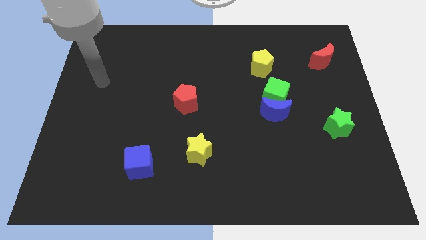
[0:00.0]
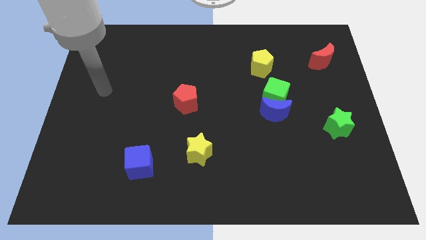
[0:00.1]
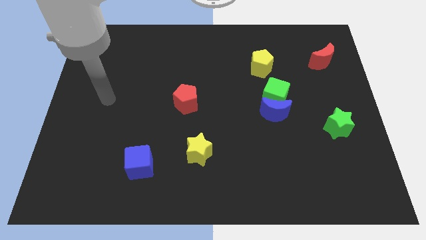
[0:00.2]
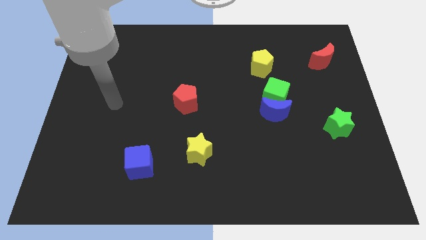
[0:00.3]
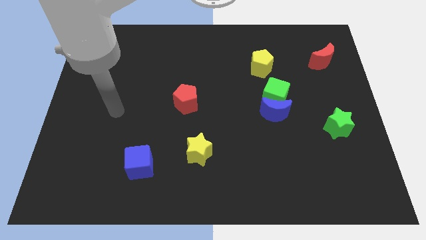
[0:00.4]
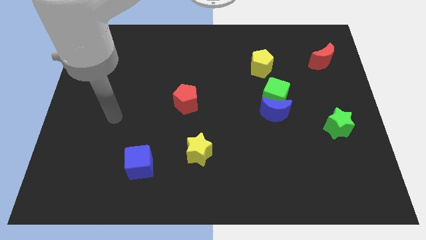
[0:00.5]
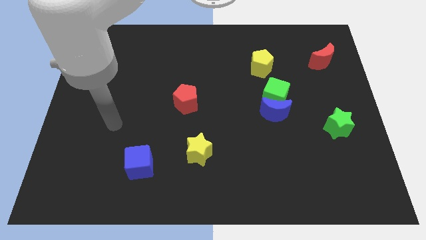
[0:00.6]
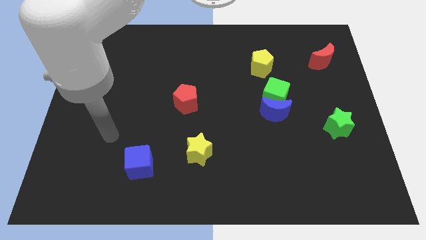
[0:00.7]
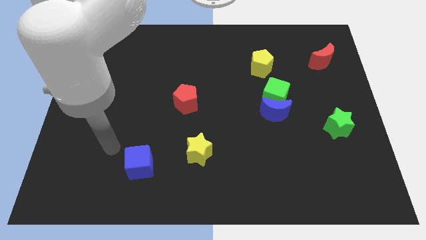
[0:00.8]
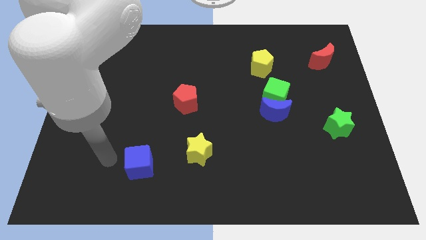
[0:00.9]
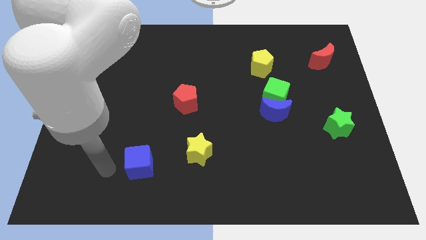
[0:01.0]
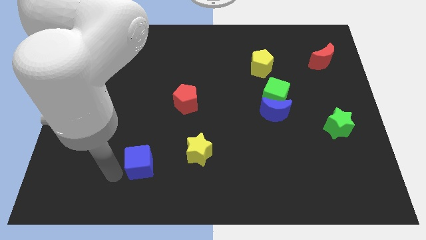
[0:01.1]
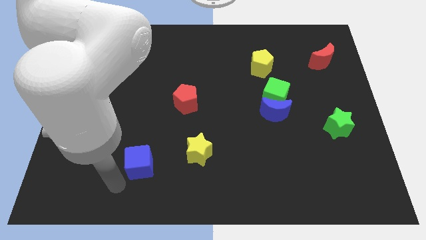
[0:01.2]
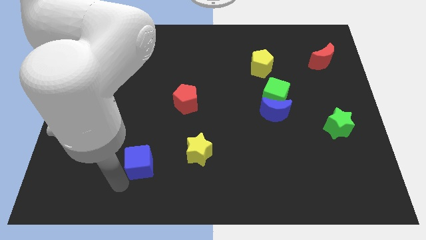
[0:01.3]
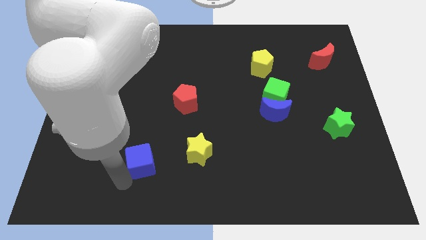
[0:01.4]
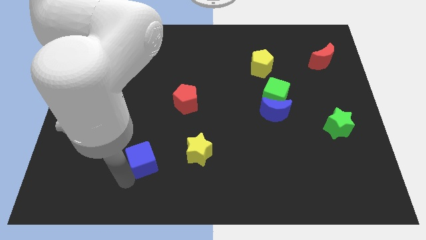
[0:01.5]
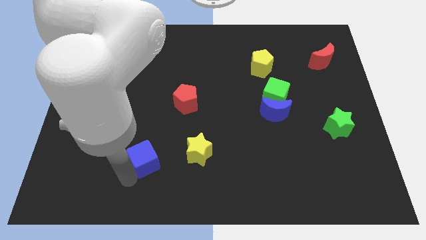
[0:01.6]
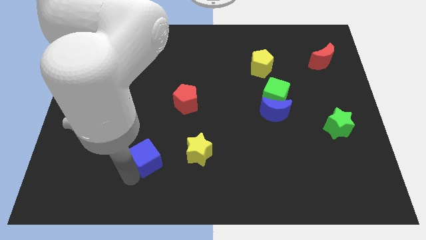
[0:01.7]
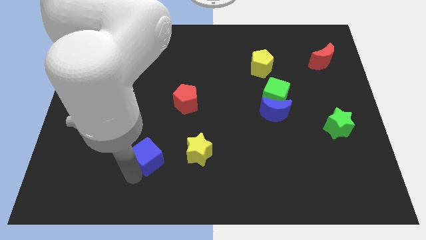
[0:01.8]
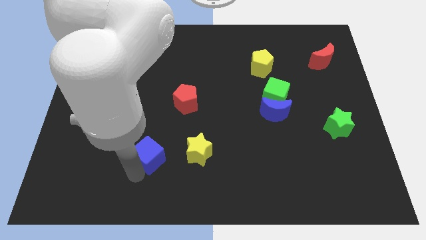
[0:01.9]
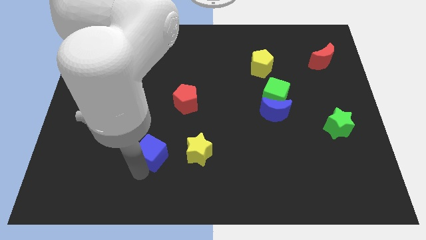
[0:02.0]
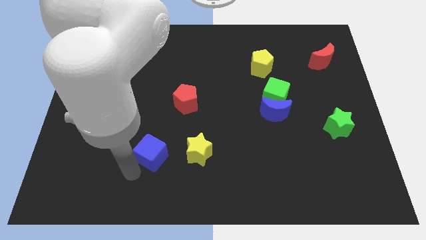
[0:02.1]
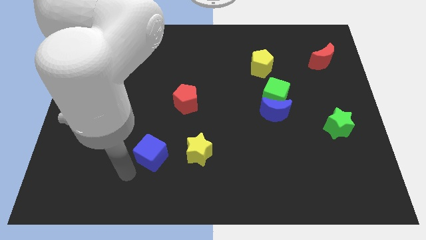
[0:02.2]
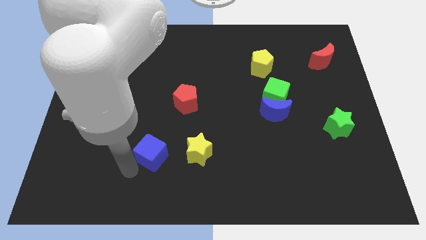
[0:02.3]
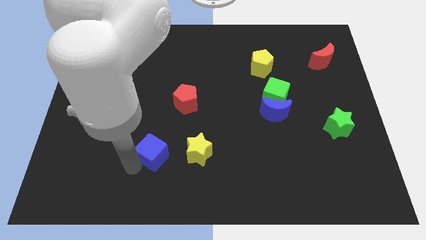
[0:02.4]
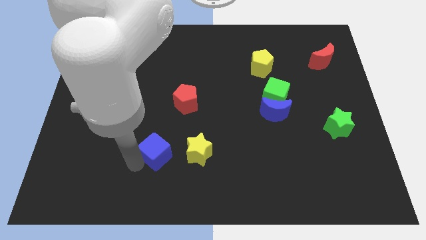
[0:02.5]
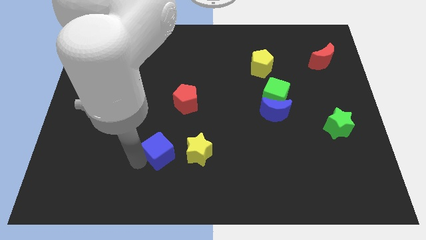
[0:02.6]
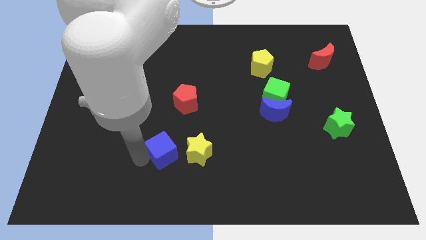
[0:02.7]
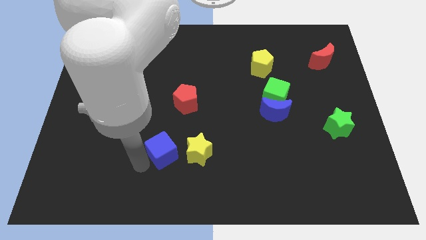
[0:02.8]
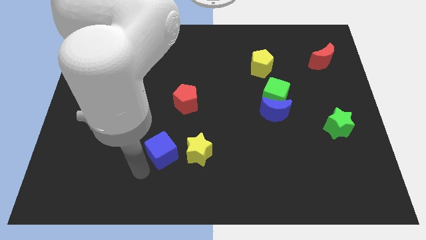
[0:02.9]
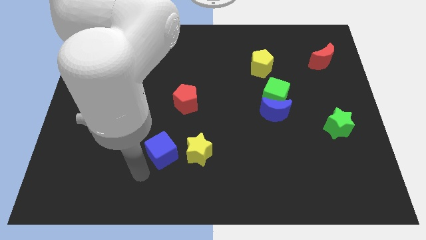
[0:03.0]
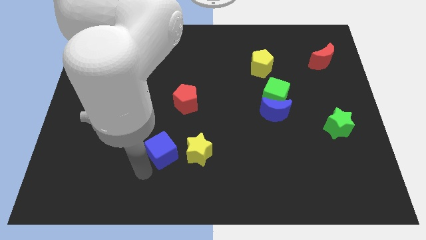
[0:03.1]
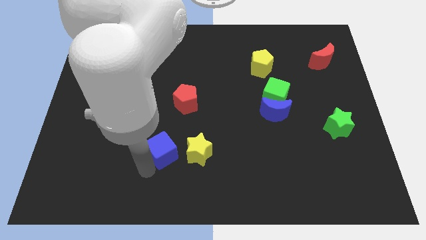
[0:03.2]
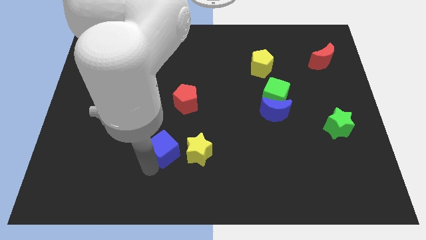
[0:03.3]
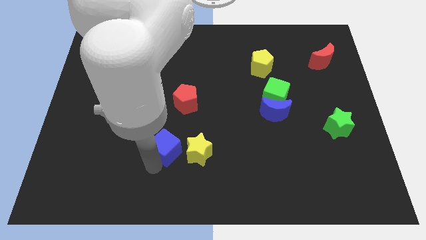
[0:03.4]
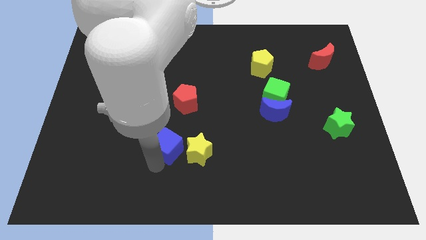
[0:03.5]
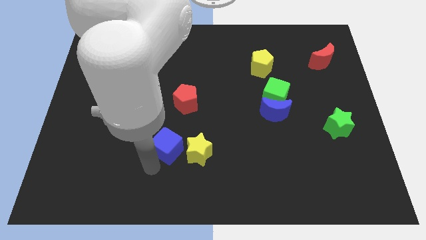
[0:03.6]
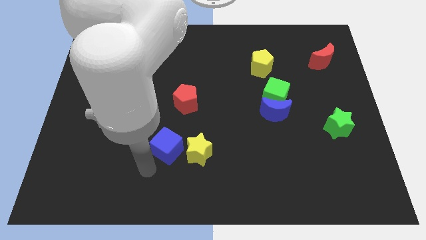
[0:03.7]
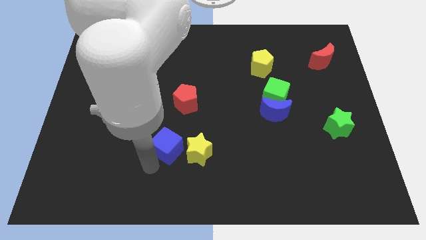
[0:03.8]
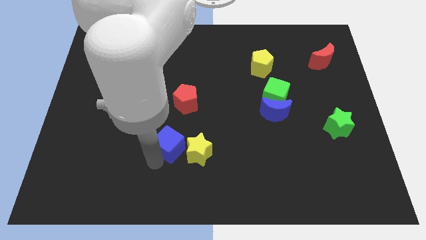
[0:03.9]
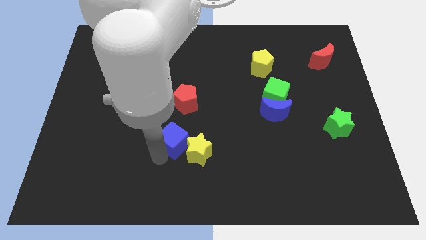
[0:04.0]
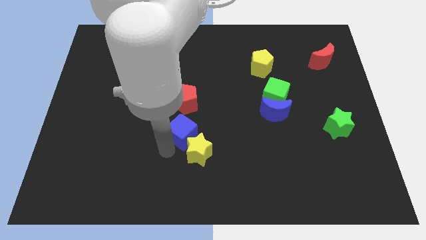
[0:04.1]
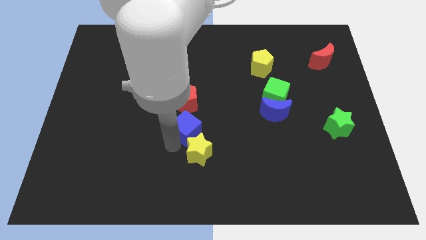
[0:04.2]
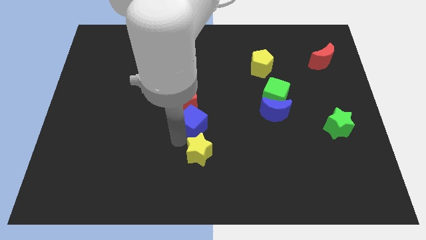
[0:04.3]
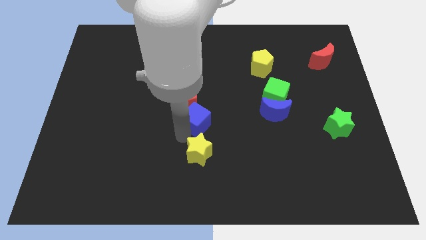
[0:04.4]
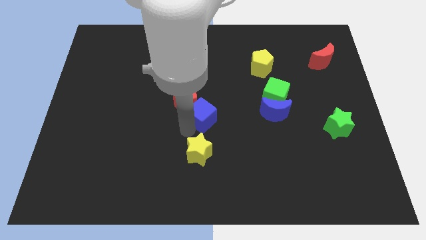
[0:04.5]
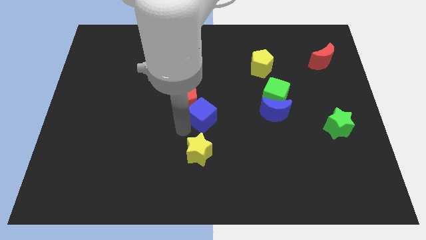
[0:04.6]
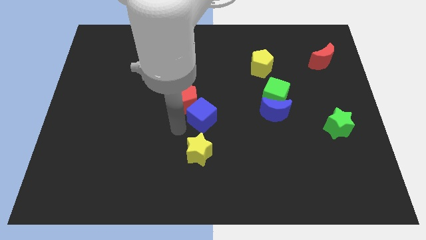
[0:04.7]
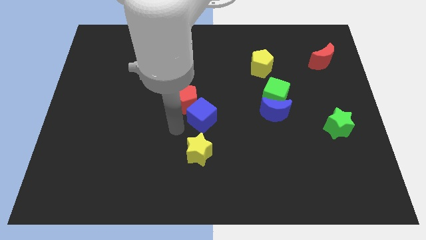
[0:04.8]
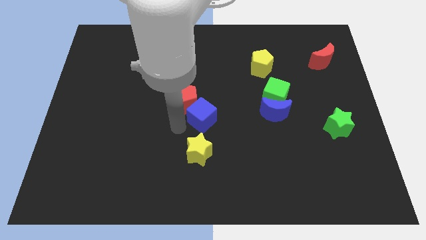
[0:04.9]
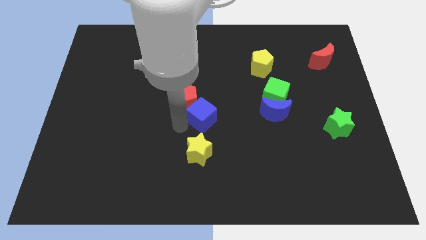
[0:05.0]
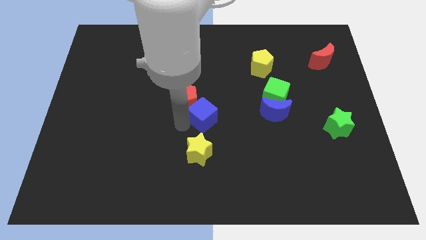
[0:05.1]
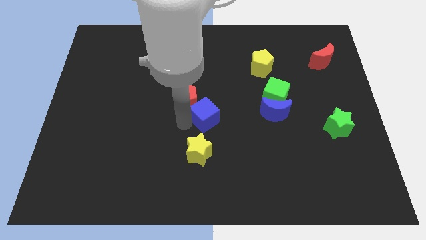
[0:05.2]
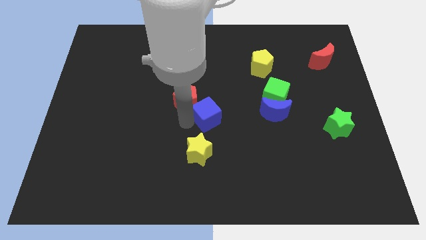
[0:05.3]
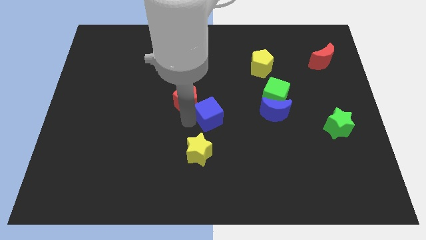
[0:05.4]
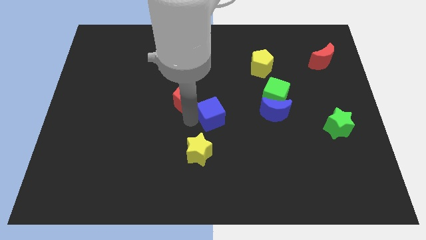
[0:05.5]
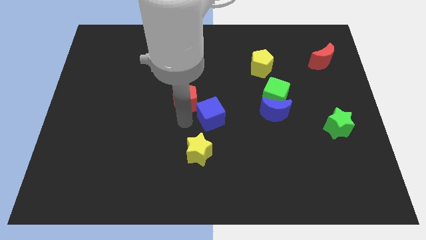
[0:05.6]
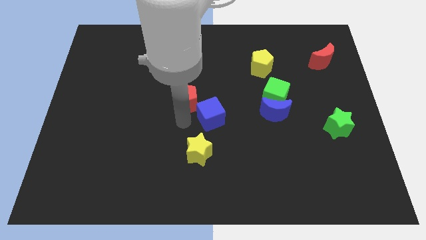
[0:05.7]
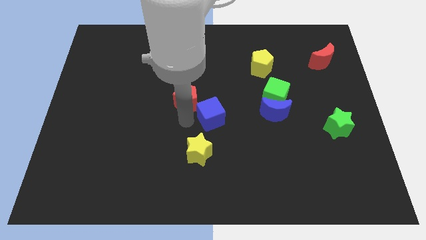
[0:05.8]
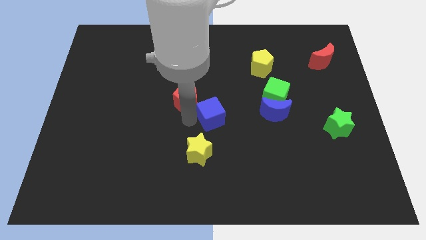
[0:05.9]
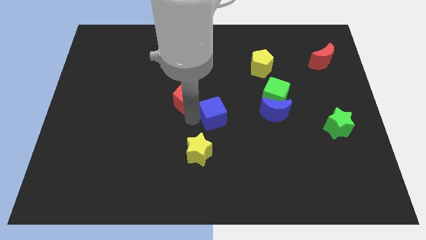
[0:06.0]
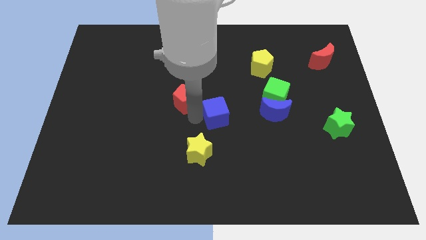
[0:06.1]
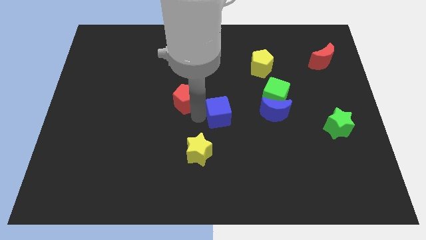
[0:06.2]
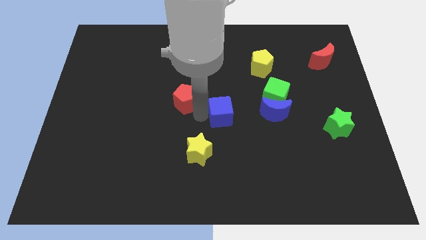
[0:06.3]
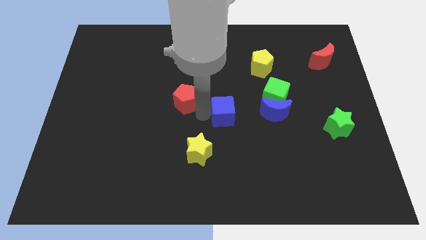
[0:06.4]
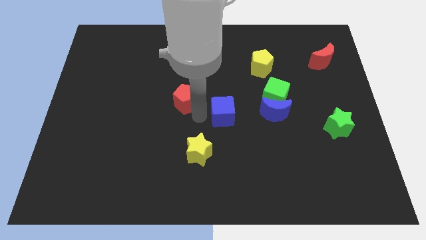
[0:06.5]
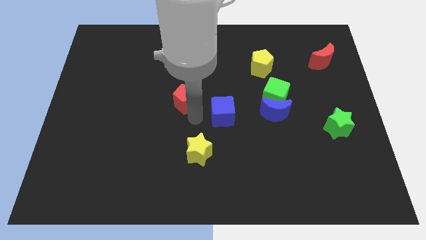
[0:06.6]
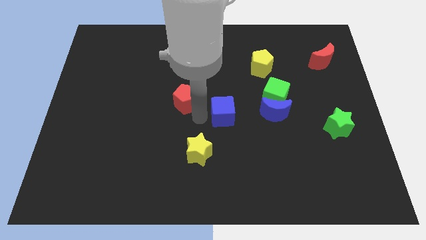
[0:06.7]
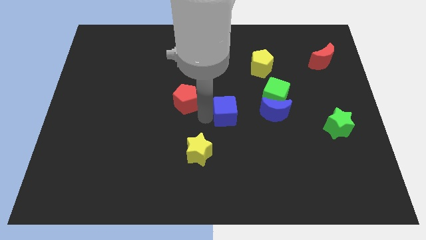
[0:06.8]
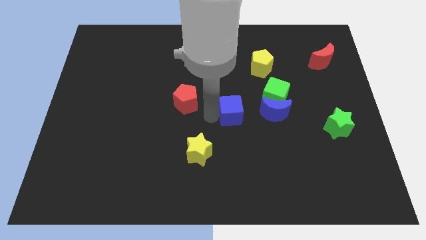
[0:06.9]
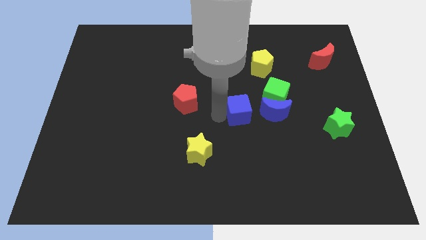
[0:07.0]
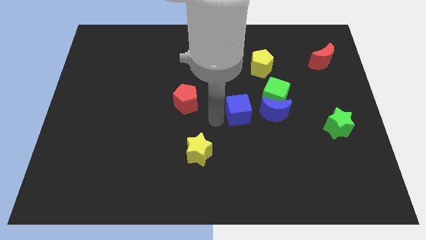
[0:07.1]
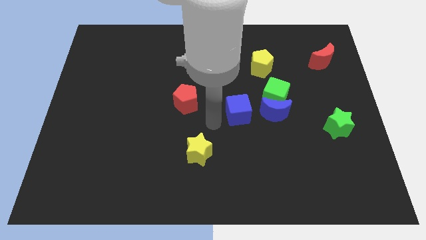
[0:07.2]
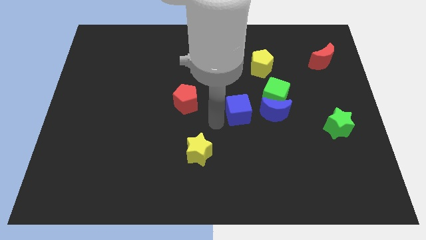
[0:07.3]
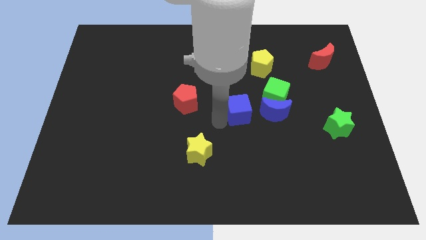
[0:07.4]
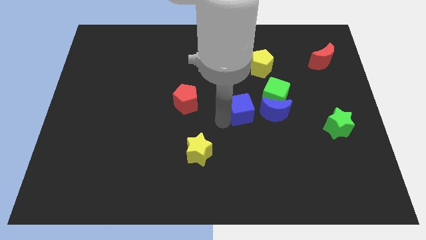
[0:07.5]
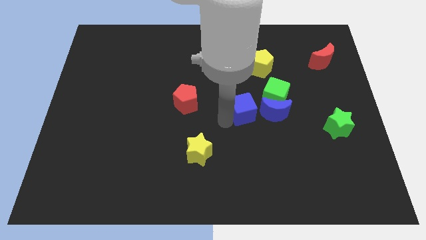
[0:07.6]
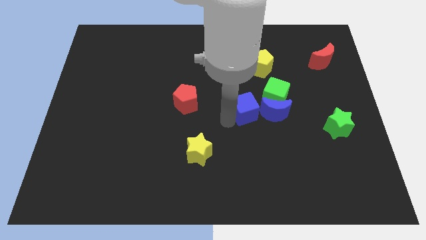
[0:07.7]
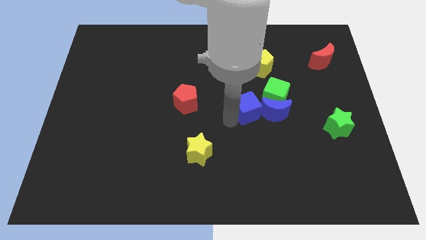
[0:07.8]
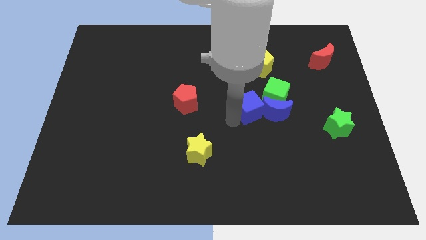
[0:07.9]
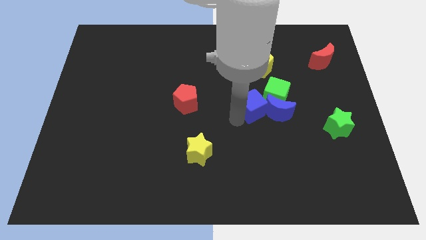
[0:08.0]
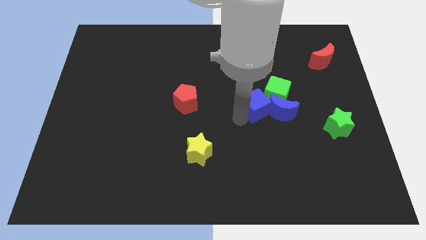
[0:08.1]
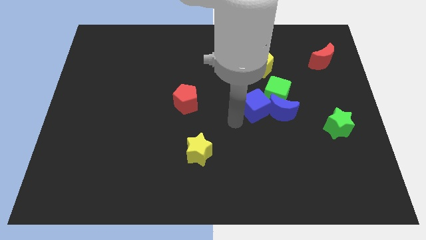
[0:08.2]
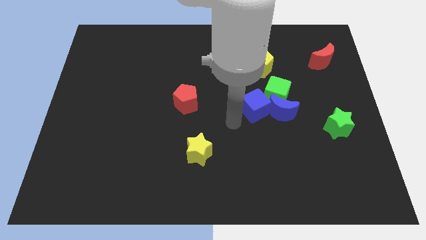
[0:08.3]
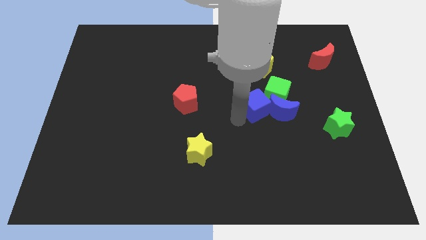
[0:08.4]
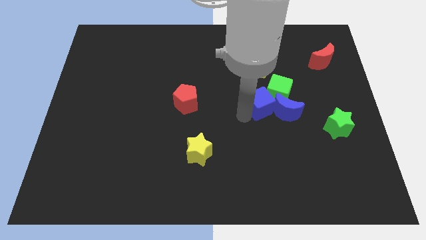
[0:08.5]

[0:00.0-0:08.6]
slide the blue cube close to the green cube
